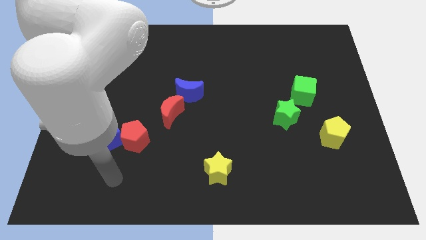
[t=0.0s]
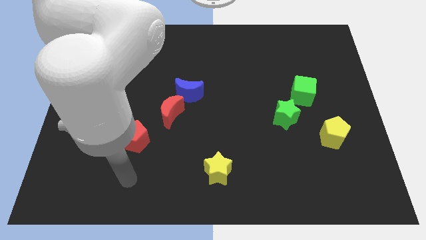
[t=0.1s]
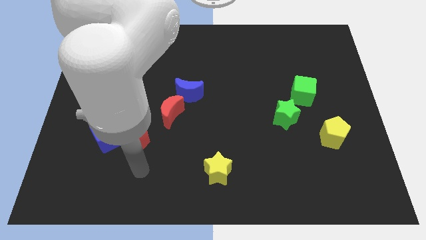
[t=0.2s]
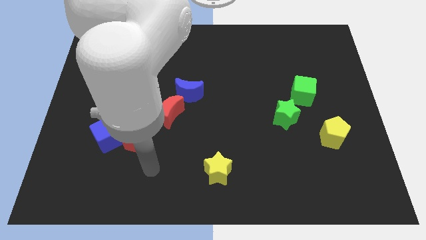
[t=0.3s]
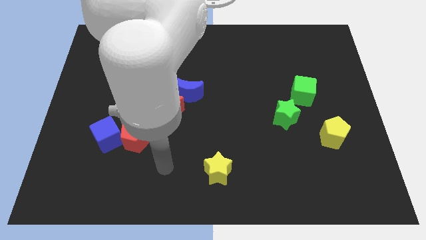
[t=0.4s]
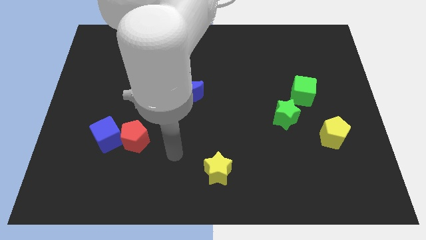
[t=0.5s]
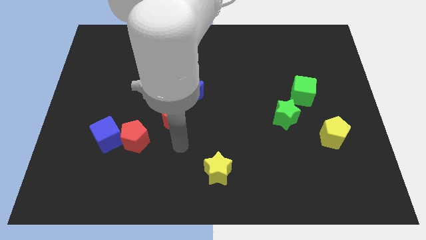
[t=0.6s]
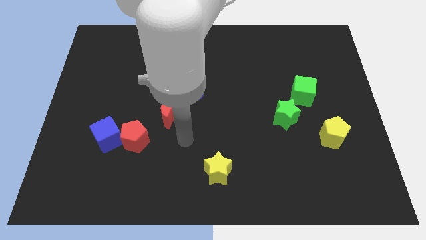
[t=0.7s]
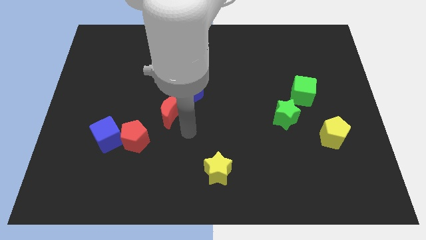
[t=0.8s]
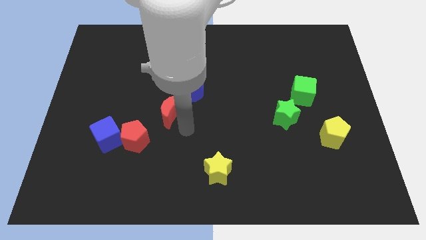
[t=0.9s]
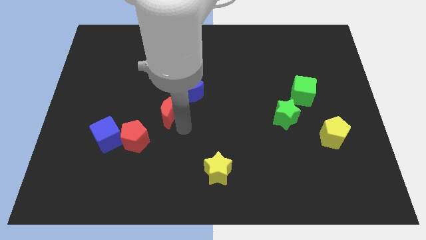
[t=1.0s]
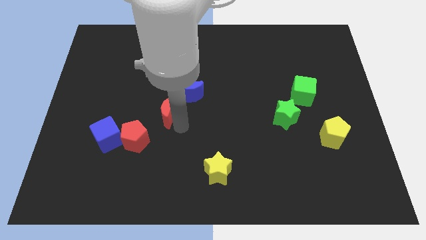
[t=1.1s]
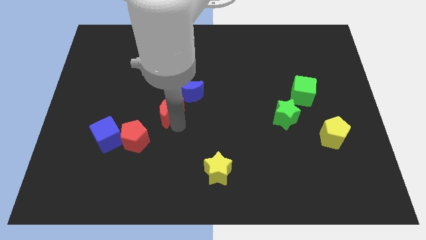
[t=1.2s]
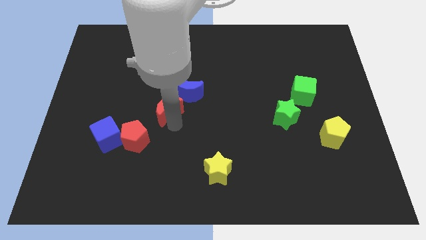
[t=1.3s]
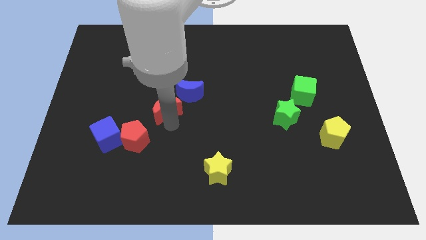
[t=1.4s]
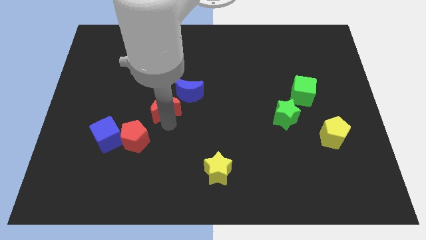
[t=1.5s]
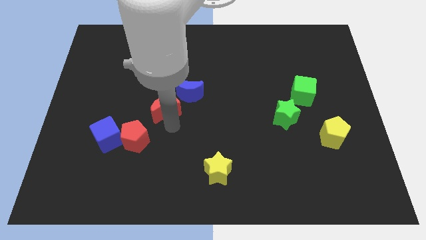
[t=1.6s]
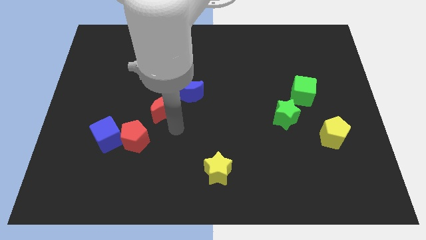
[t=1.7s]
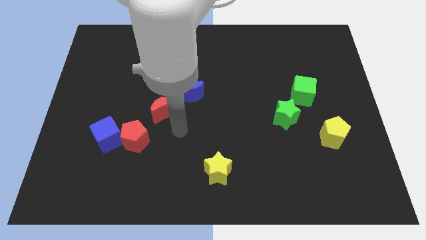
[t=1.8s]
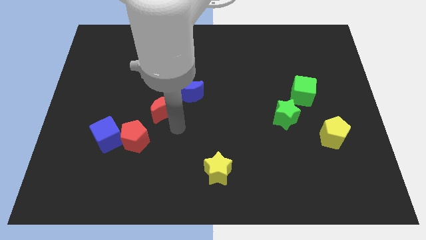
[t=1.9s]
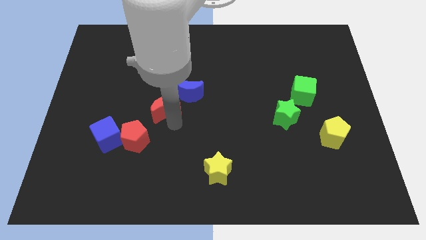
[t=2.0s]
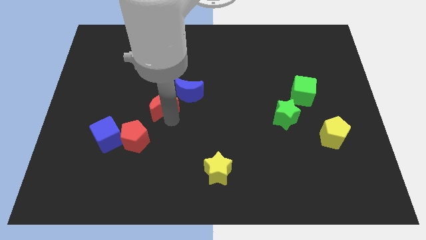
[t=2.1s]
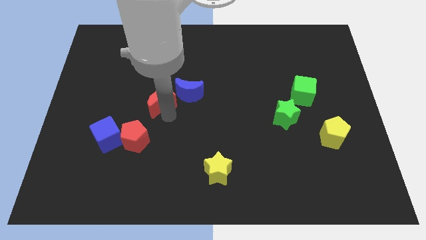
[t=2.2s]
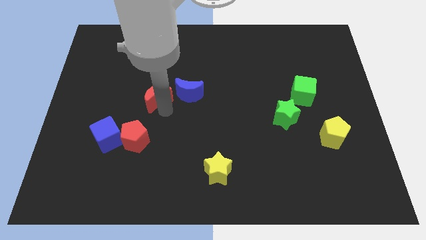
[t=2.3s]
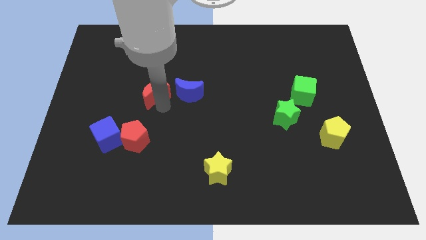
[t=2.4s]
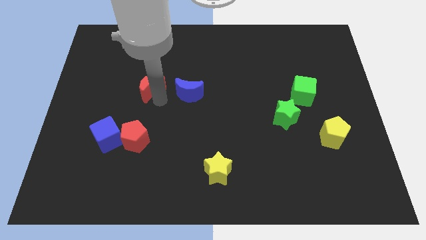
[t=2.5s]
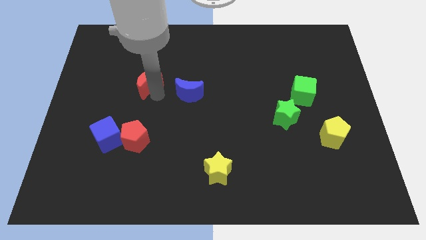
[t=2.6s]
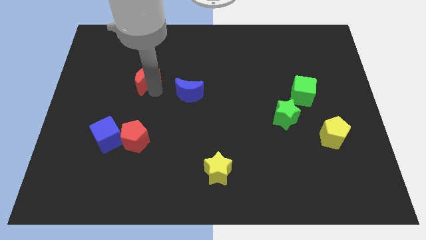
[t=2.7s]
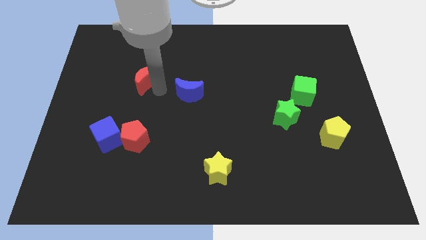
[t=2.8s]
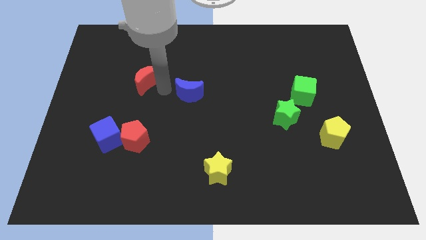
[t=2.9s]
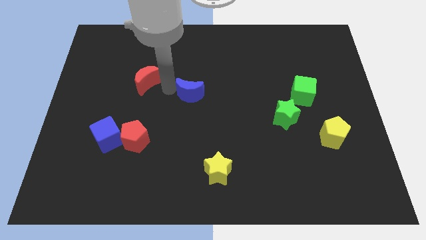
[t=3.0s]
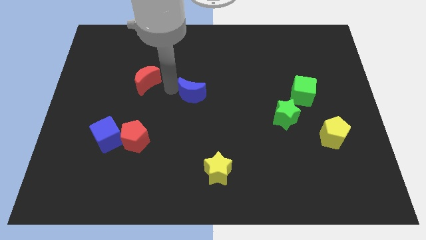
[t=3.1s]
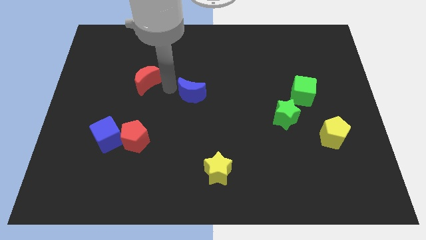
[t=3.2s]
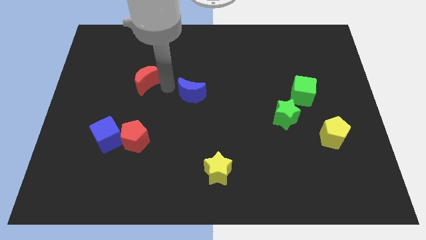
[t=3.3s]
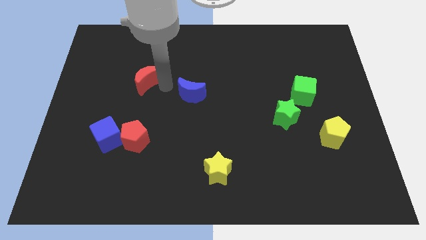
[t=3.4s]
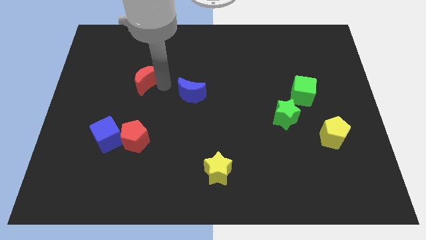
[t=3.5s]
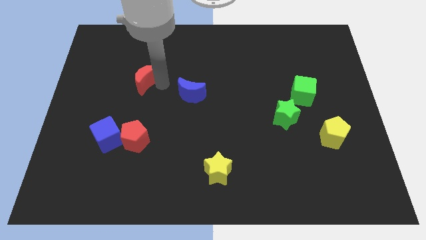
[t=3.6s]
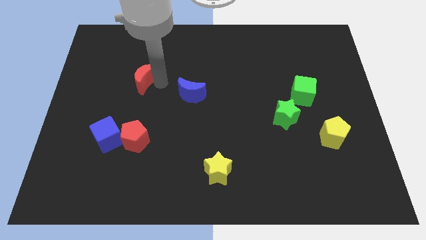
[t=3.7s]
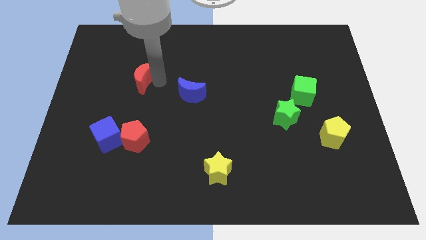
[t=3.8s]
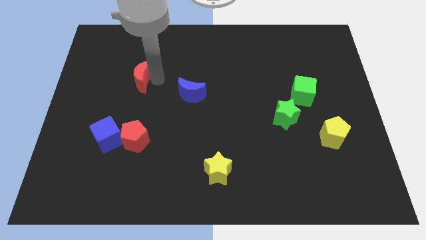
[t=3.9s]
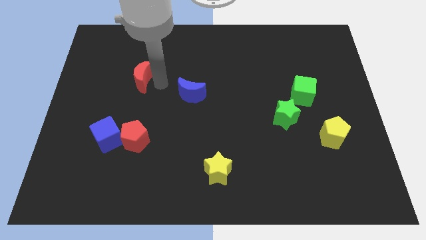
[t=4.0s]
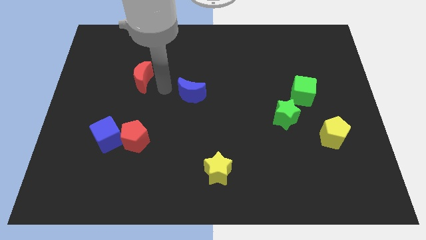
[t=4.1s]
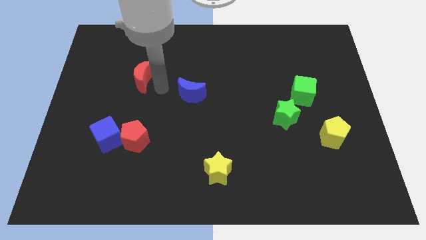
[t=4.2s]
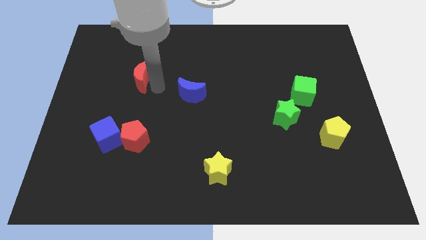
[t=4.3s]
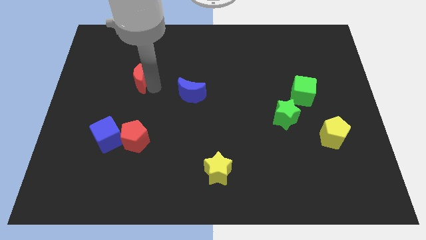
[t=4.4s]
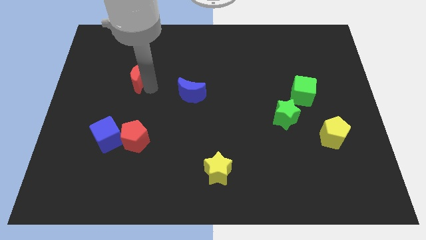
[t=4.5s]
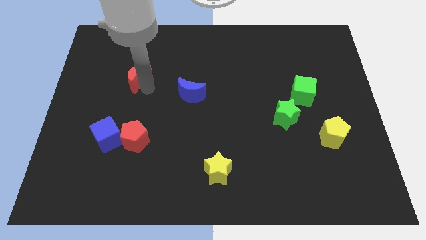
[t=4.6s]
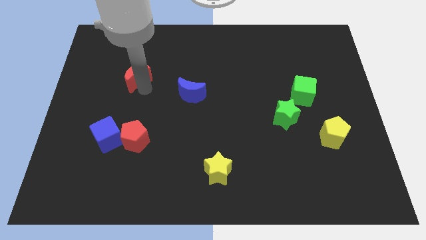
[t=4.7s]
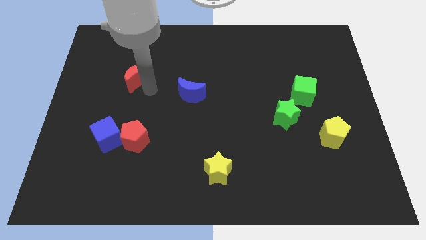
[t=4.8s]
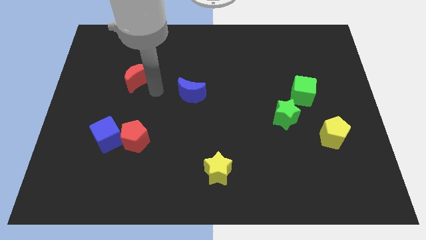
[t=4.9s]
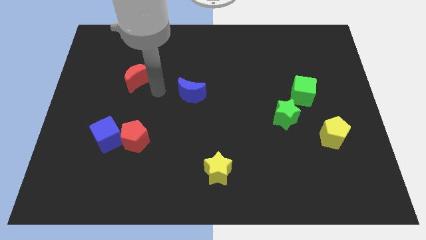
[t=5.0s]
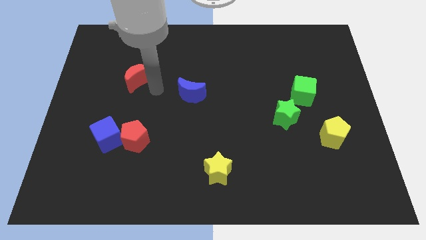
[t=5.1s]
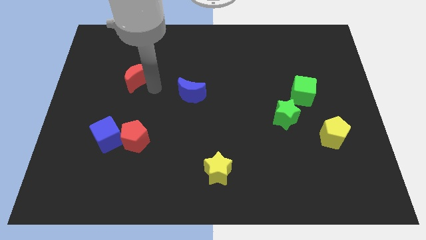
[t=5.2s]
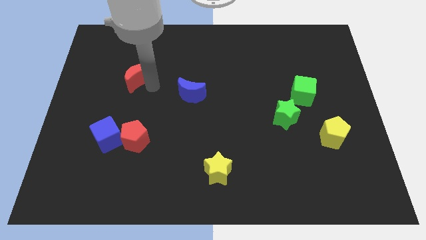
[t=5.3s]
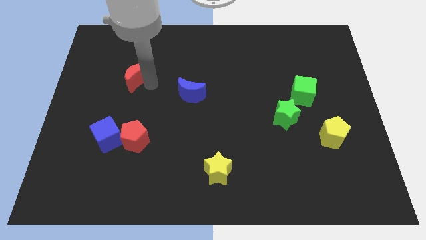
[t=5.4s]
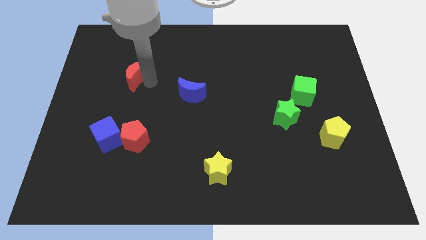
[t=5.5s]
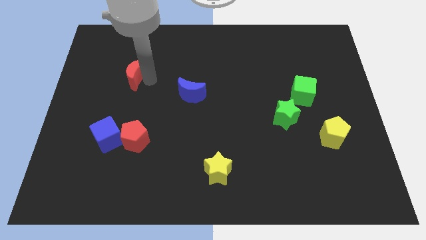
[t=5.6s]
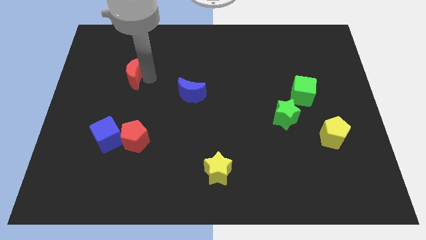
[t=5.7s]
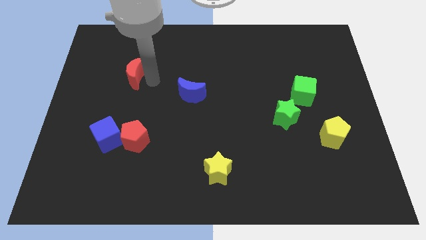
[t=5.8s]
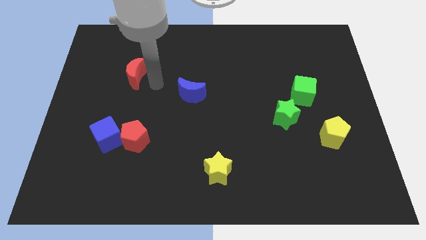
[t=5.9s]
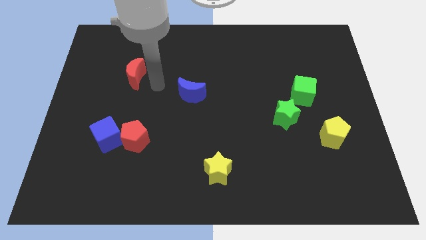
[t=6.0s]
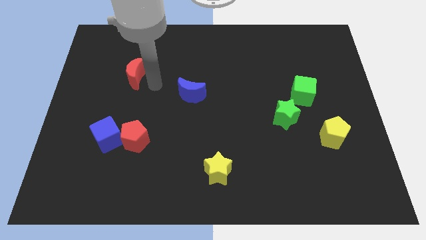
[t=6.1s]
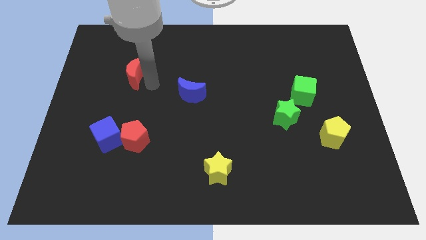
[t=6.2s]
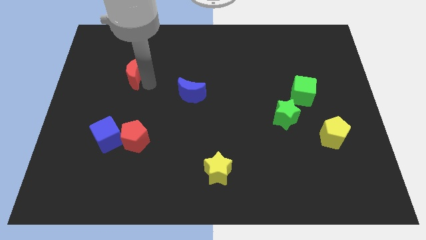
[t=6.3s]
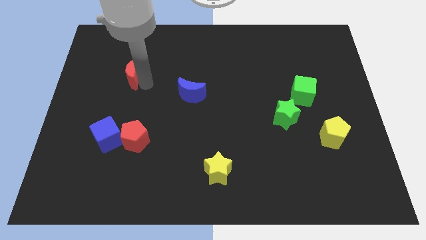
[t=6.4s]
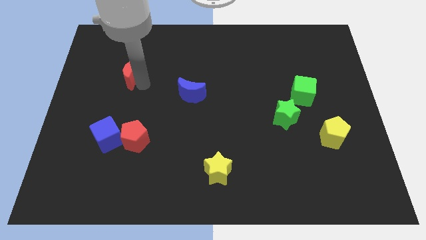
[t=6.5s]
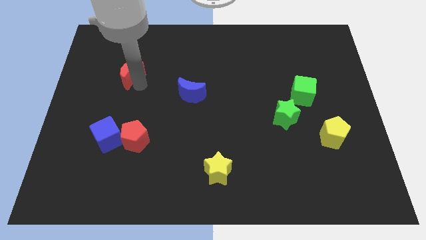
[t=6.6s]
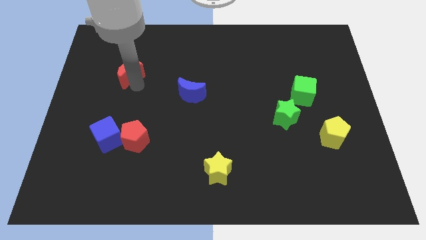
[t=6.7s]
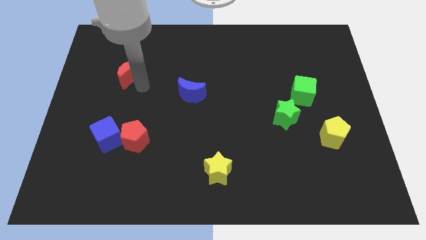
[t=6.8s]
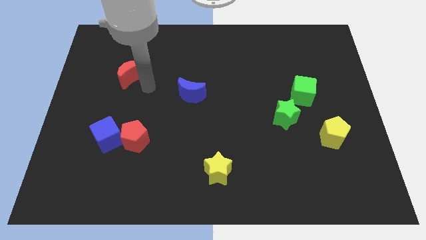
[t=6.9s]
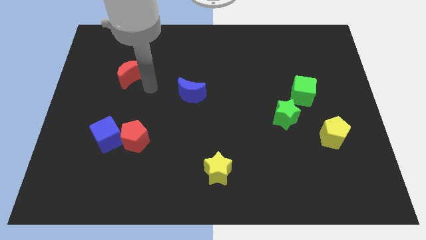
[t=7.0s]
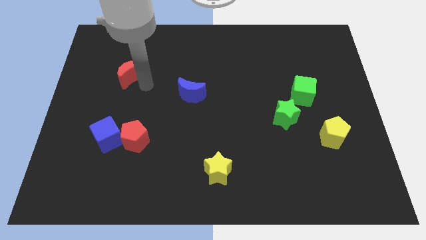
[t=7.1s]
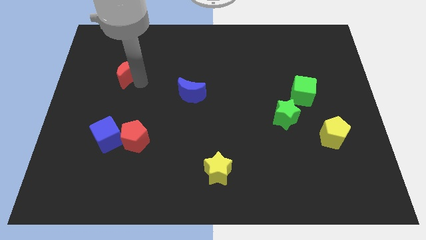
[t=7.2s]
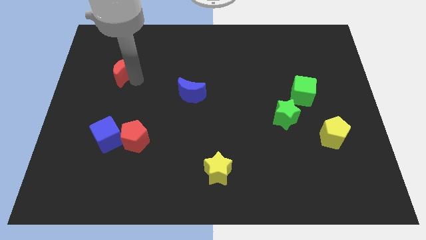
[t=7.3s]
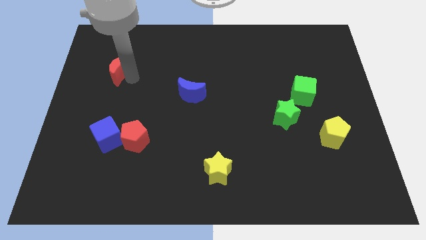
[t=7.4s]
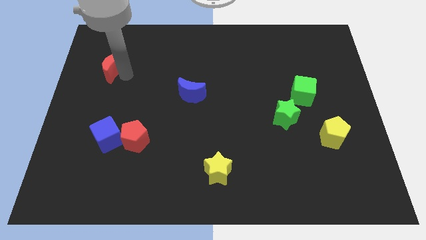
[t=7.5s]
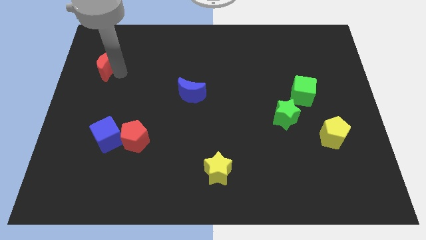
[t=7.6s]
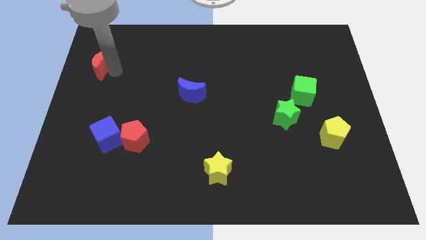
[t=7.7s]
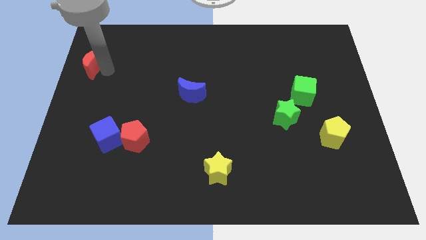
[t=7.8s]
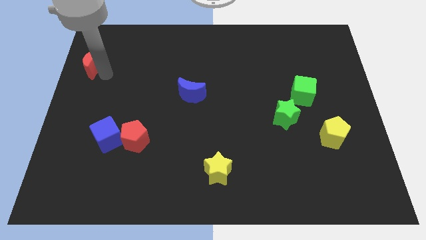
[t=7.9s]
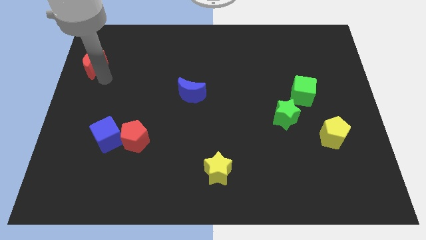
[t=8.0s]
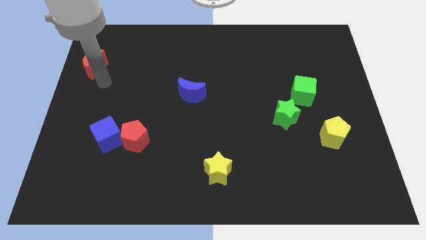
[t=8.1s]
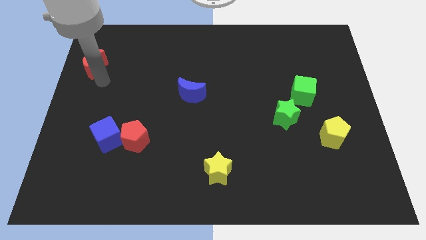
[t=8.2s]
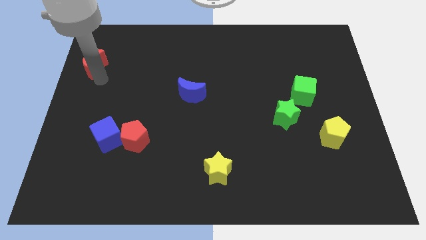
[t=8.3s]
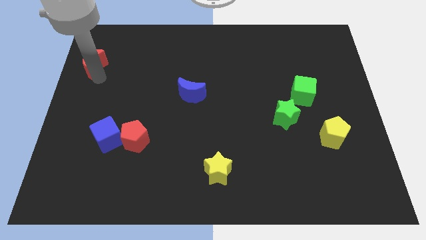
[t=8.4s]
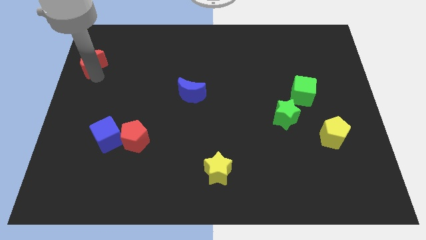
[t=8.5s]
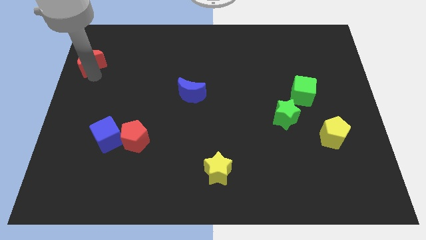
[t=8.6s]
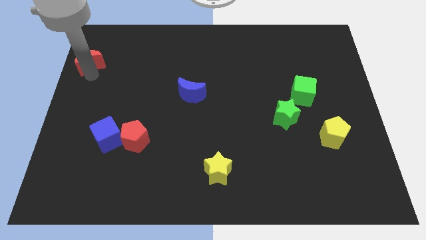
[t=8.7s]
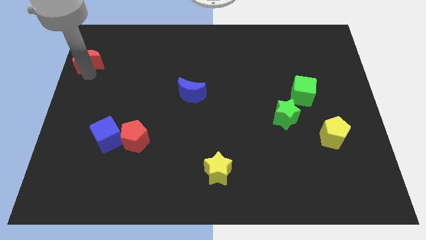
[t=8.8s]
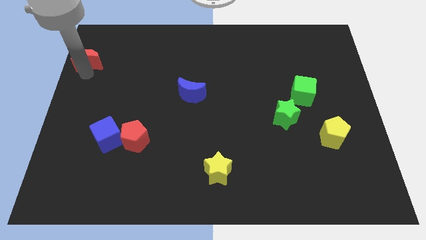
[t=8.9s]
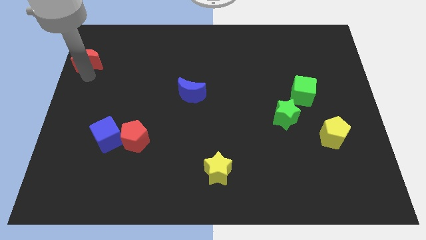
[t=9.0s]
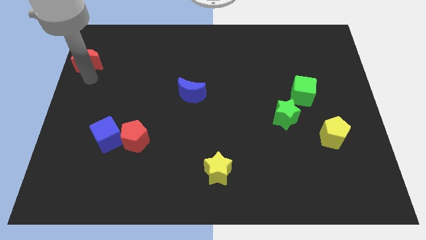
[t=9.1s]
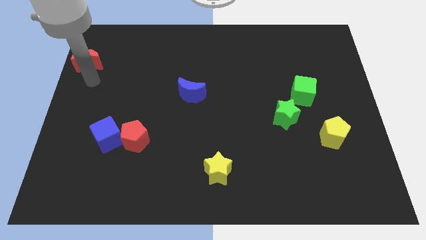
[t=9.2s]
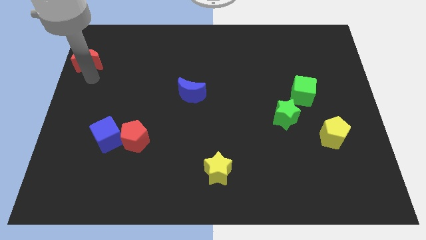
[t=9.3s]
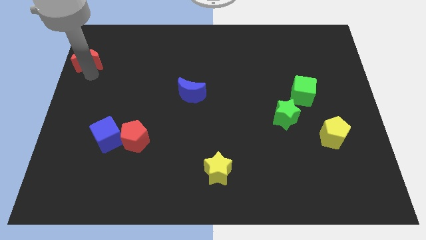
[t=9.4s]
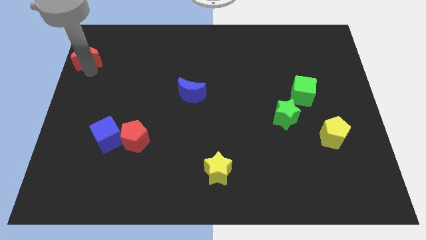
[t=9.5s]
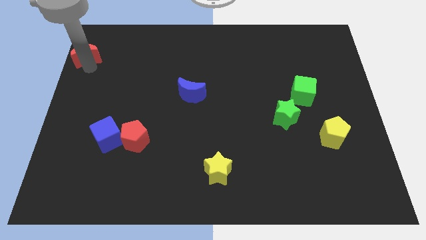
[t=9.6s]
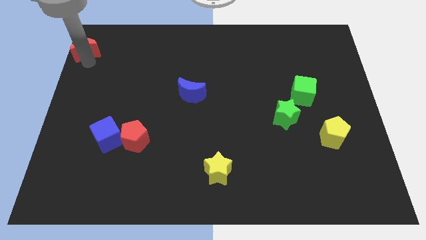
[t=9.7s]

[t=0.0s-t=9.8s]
put the red moon to the top left
